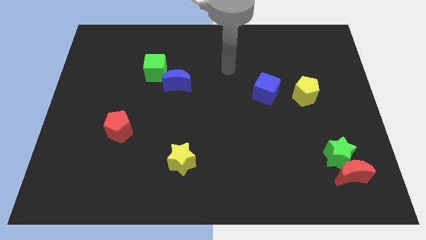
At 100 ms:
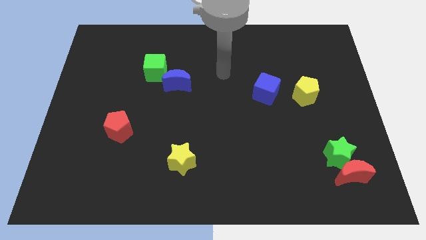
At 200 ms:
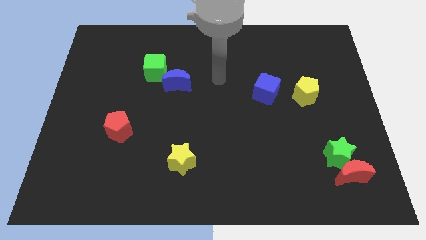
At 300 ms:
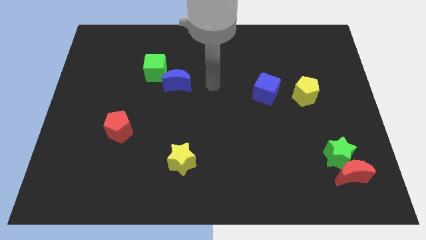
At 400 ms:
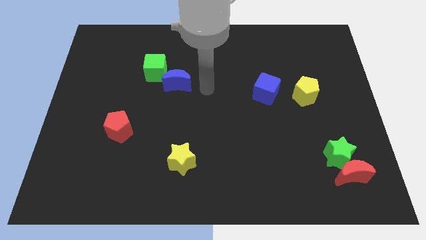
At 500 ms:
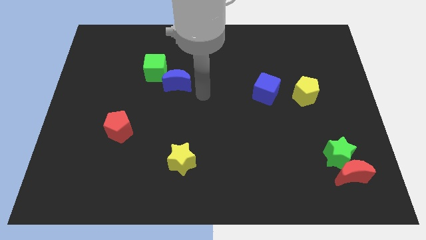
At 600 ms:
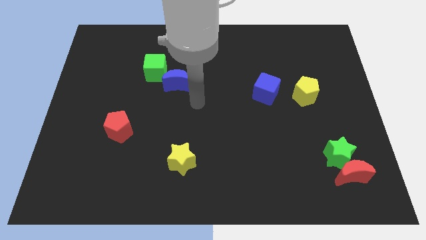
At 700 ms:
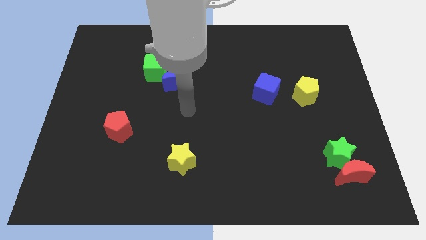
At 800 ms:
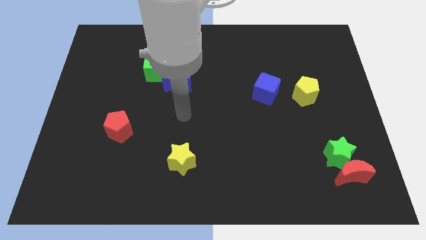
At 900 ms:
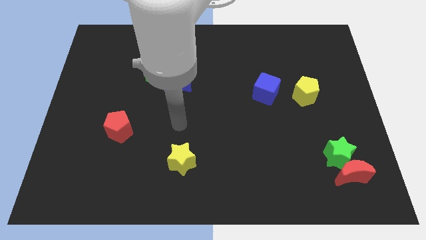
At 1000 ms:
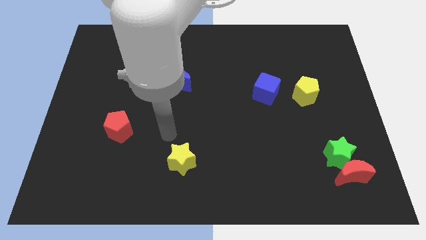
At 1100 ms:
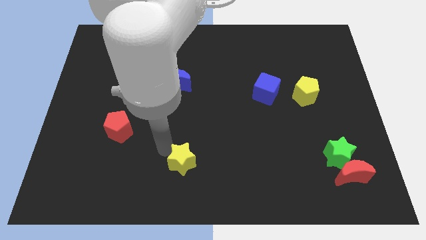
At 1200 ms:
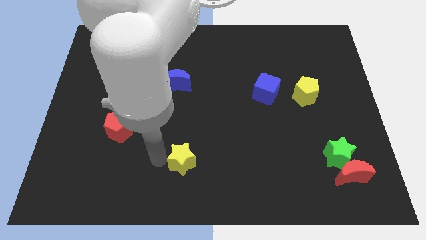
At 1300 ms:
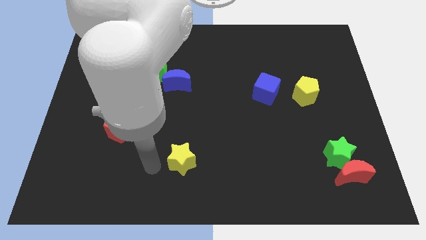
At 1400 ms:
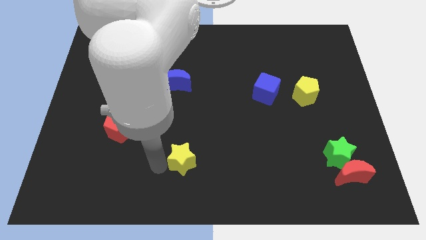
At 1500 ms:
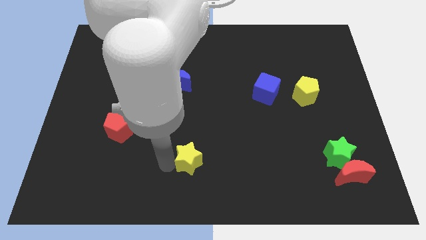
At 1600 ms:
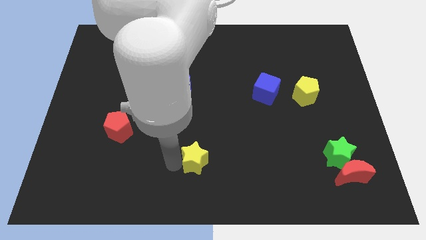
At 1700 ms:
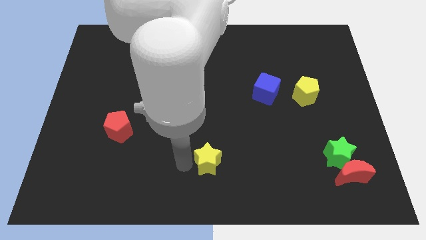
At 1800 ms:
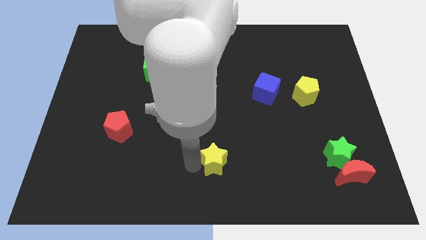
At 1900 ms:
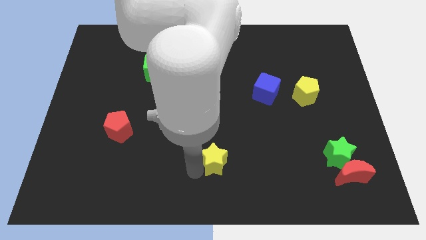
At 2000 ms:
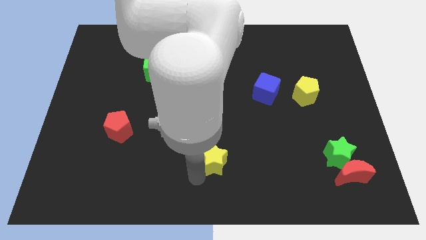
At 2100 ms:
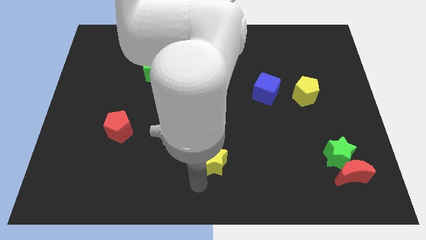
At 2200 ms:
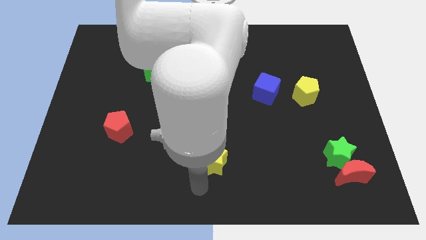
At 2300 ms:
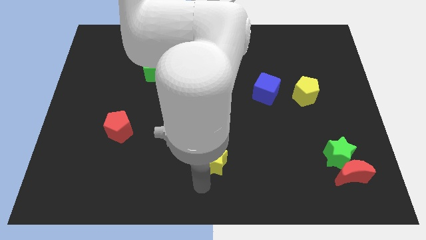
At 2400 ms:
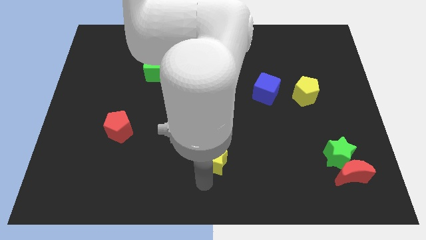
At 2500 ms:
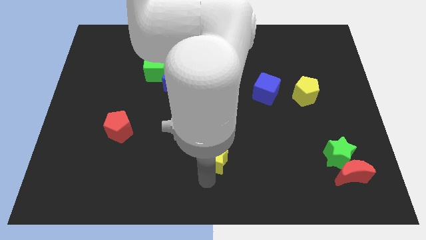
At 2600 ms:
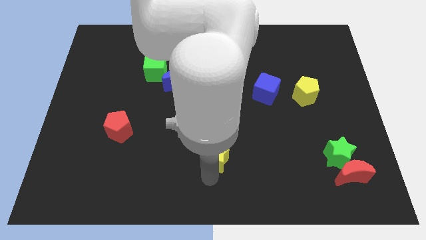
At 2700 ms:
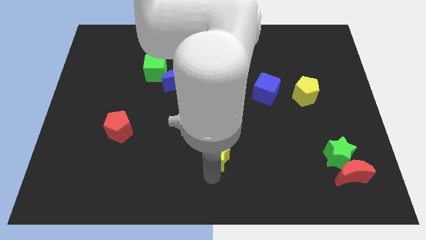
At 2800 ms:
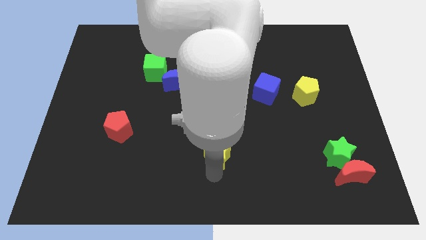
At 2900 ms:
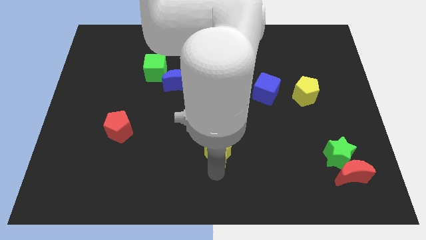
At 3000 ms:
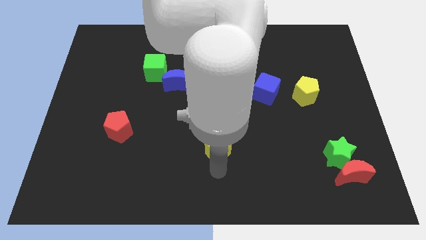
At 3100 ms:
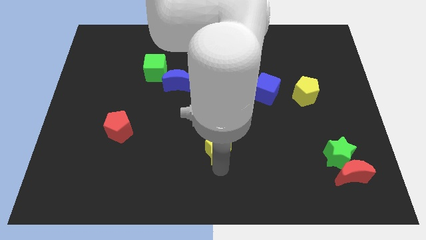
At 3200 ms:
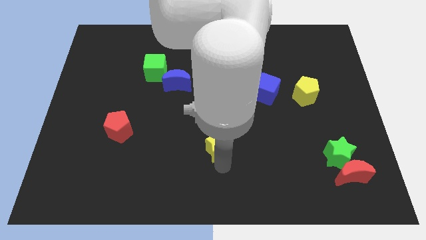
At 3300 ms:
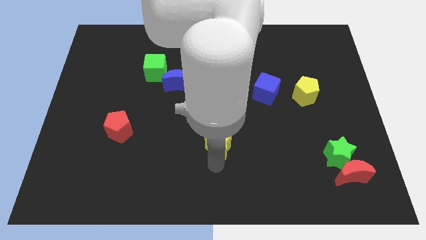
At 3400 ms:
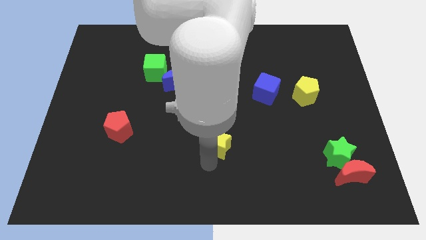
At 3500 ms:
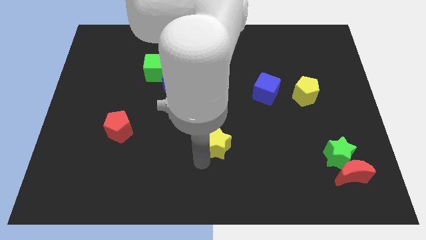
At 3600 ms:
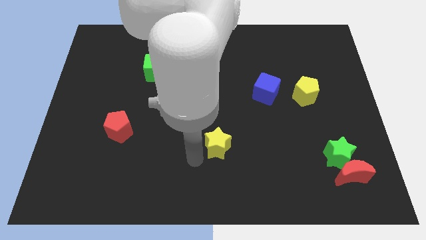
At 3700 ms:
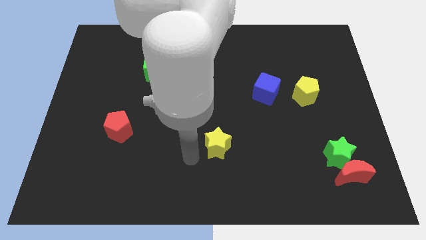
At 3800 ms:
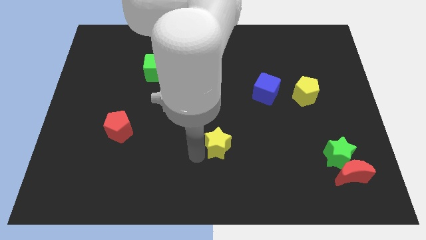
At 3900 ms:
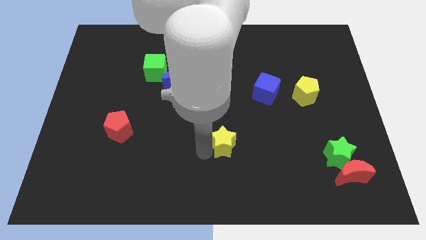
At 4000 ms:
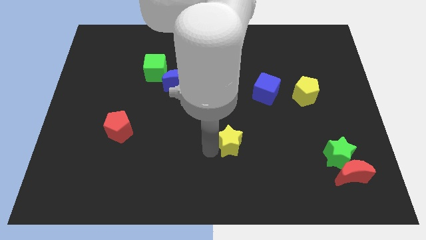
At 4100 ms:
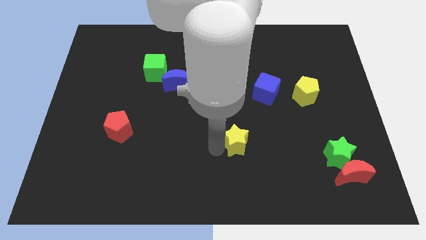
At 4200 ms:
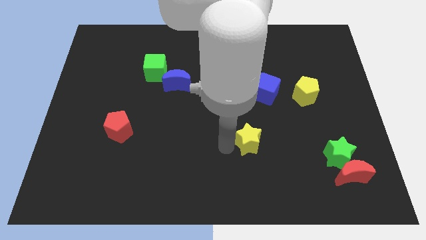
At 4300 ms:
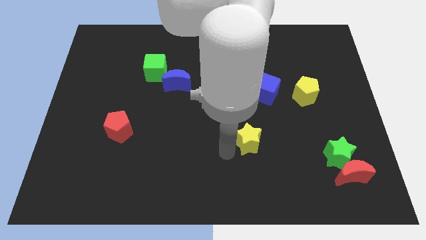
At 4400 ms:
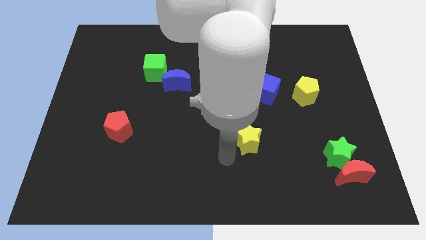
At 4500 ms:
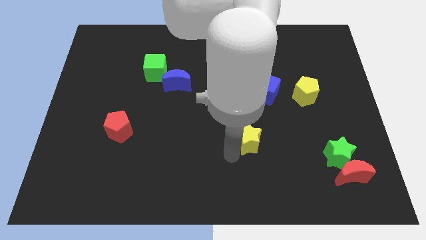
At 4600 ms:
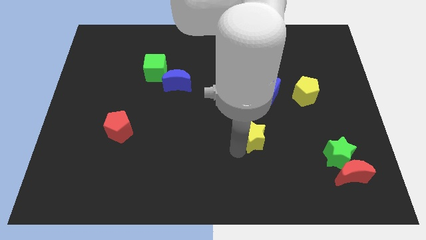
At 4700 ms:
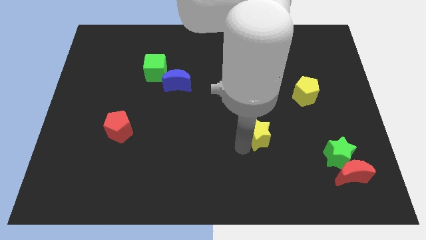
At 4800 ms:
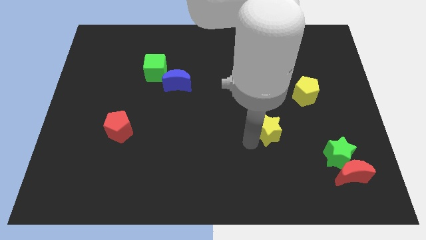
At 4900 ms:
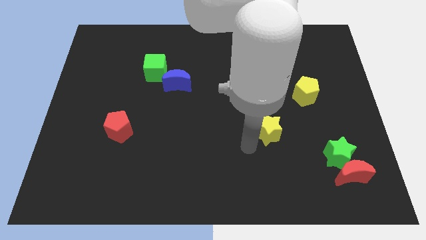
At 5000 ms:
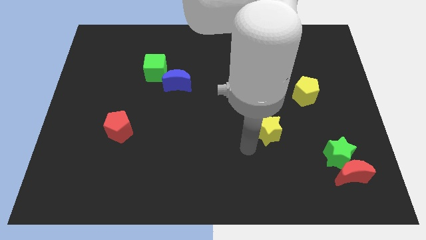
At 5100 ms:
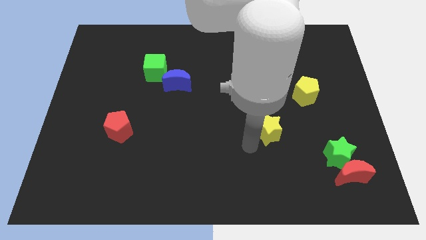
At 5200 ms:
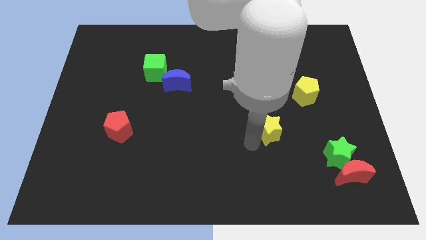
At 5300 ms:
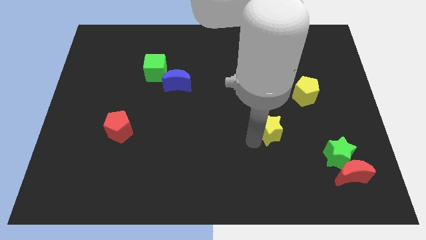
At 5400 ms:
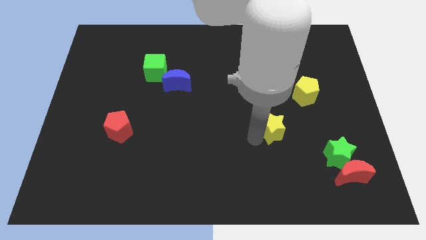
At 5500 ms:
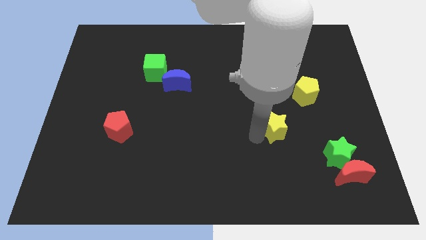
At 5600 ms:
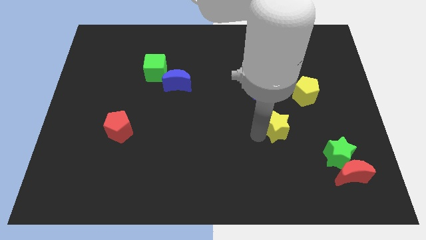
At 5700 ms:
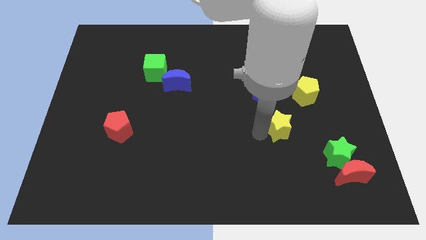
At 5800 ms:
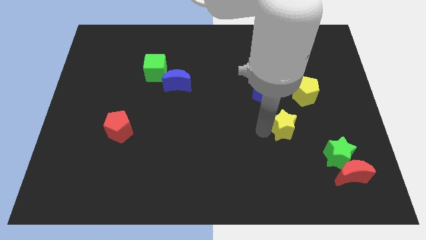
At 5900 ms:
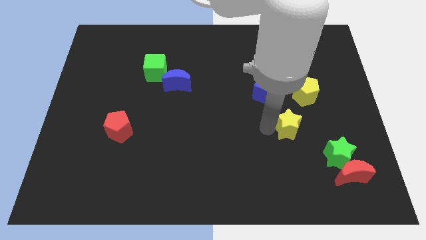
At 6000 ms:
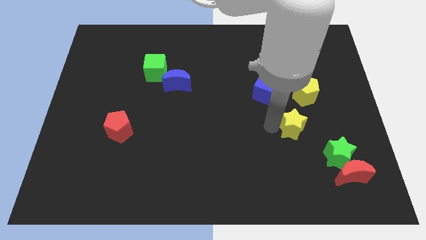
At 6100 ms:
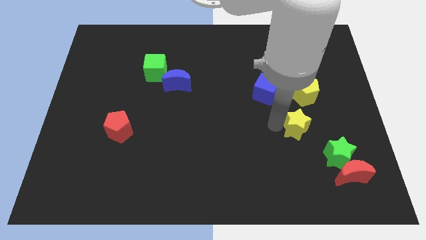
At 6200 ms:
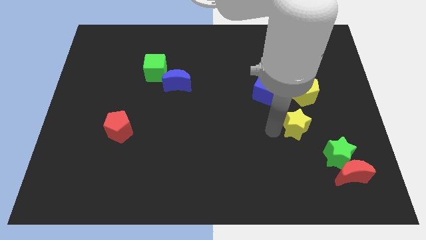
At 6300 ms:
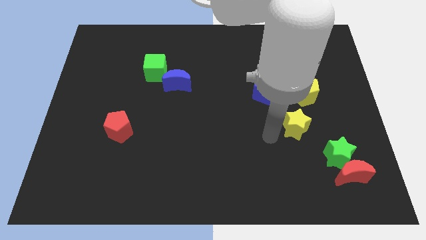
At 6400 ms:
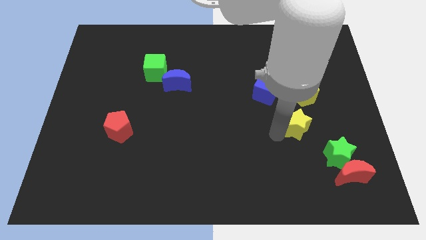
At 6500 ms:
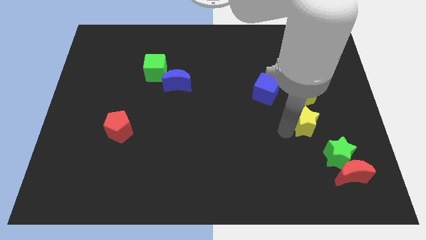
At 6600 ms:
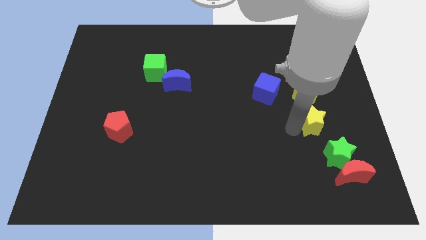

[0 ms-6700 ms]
put the yellow star to the top of the green star
